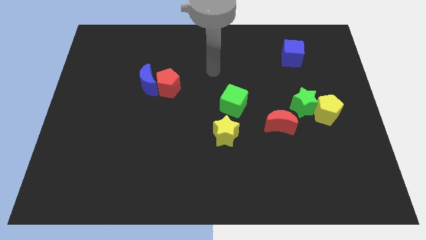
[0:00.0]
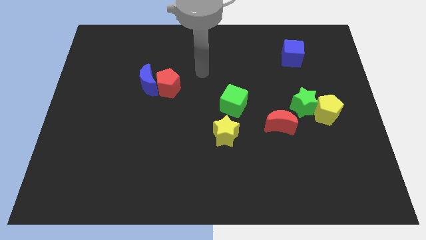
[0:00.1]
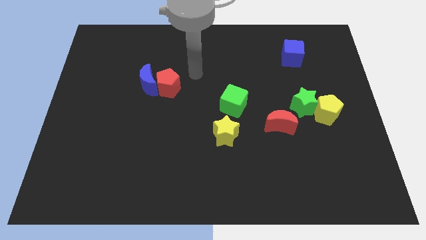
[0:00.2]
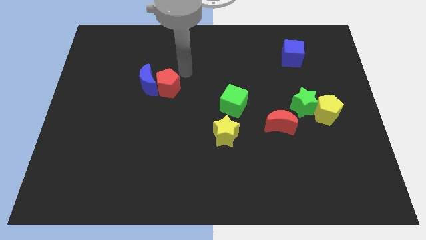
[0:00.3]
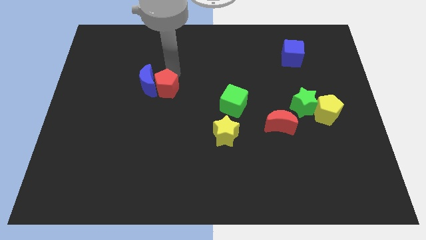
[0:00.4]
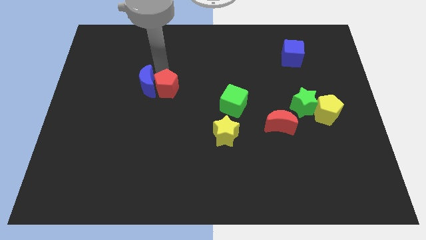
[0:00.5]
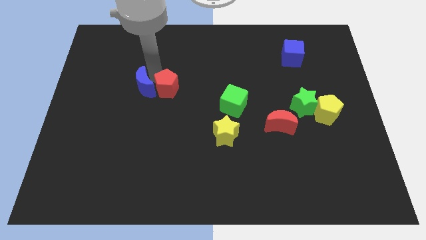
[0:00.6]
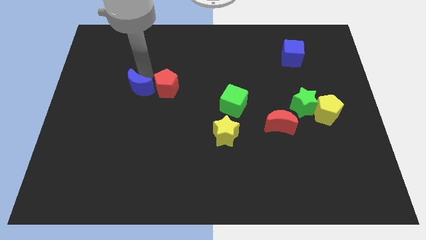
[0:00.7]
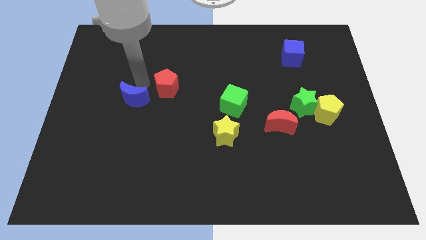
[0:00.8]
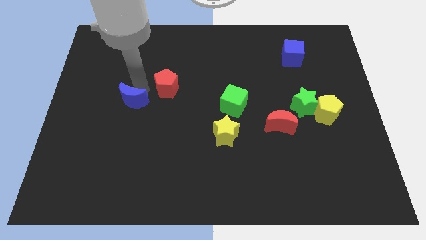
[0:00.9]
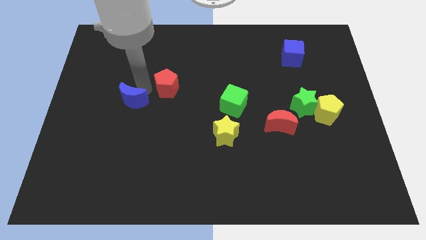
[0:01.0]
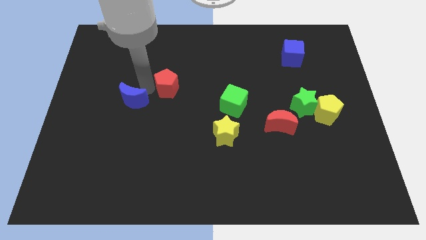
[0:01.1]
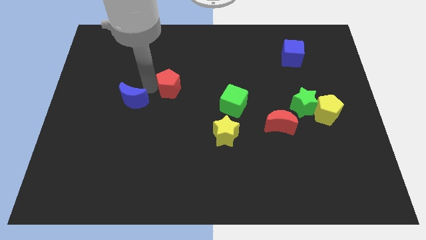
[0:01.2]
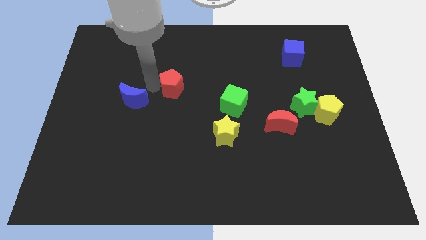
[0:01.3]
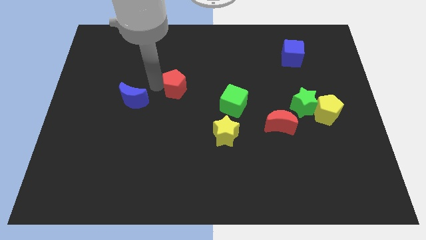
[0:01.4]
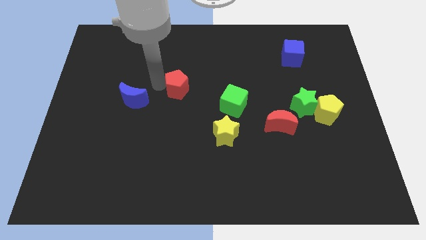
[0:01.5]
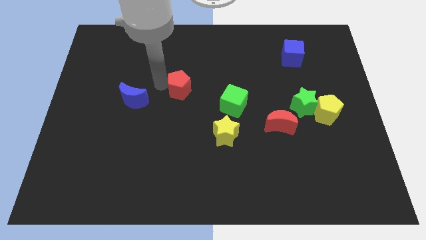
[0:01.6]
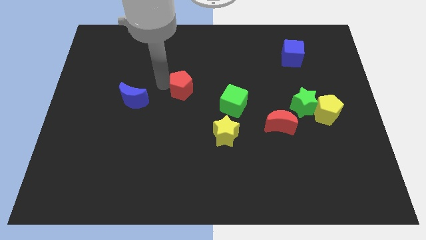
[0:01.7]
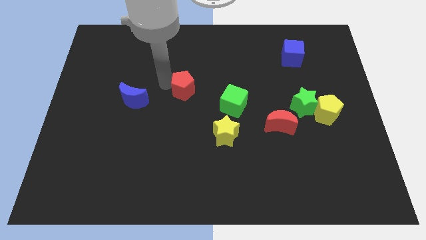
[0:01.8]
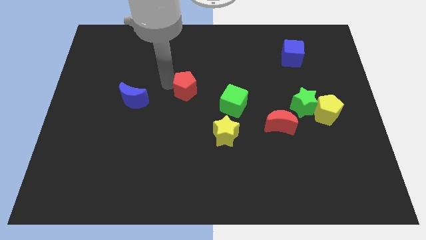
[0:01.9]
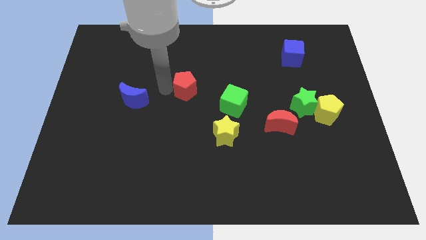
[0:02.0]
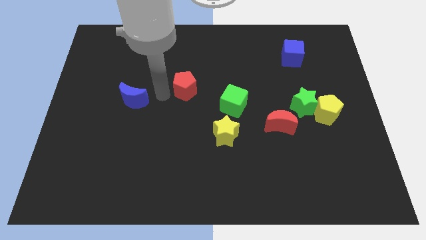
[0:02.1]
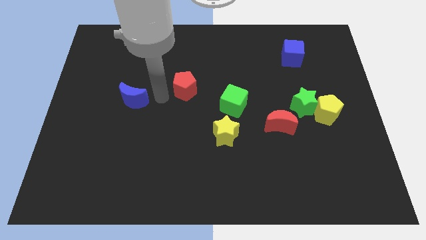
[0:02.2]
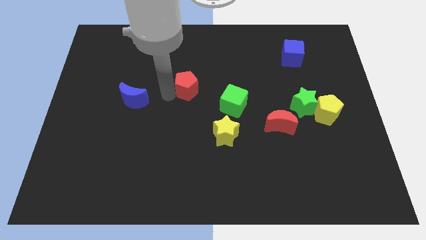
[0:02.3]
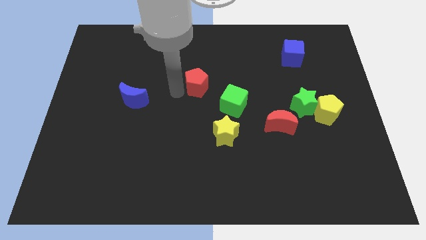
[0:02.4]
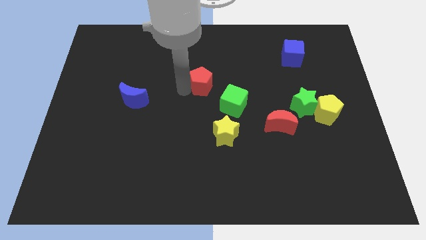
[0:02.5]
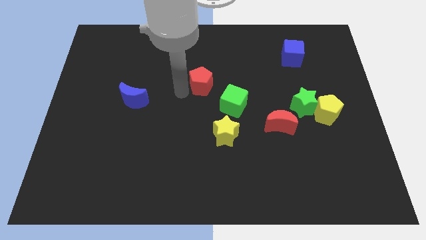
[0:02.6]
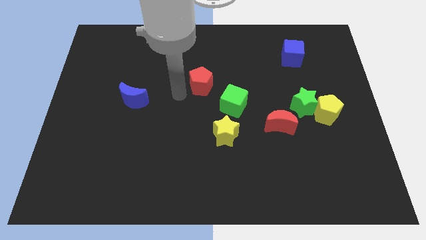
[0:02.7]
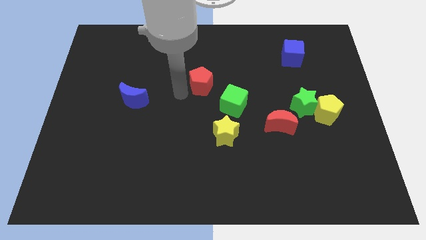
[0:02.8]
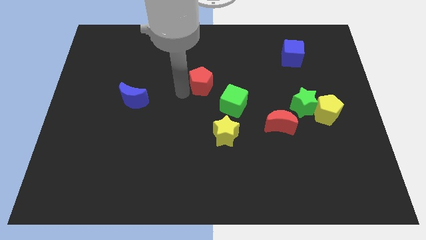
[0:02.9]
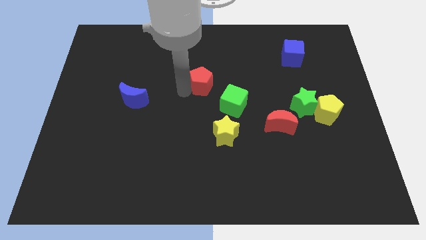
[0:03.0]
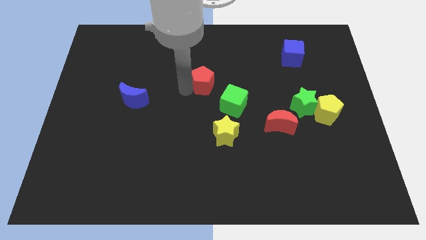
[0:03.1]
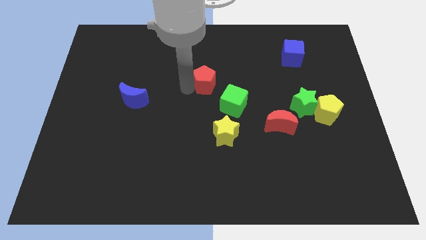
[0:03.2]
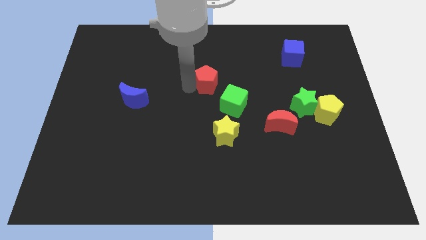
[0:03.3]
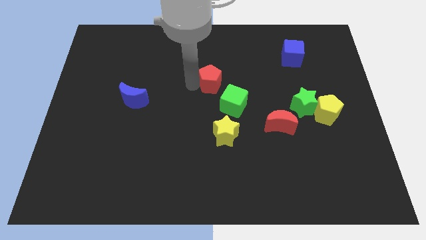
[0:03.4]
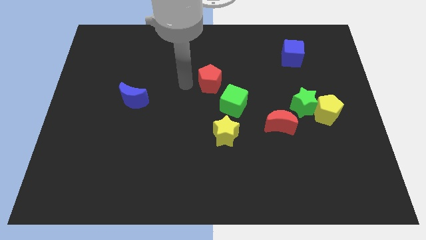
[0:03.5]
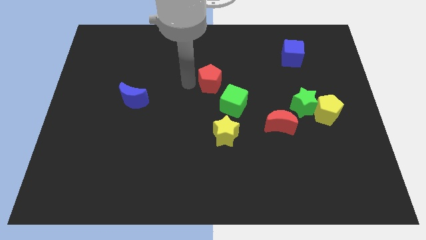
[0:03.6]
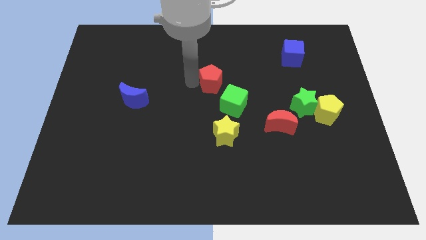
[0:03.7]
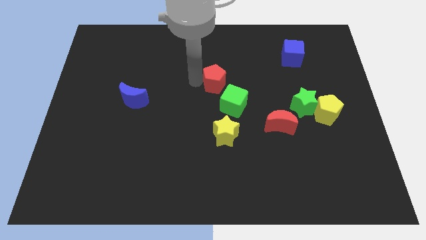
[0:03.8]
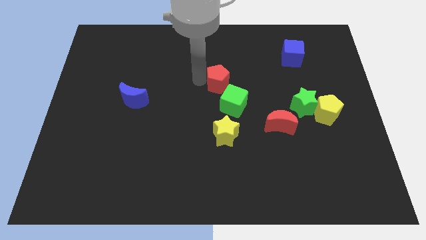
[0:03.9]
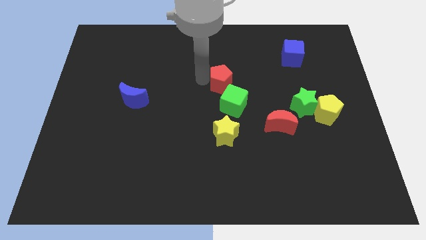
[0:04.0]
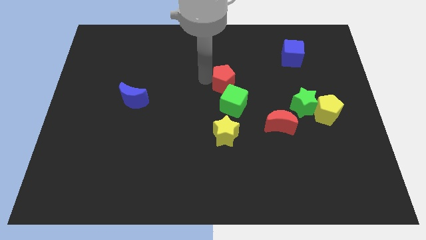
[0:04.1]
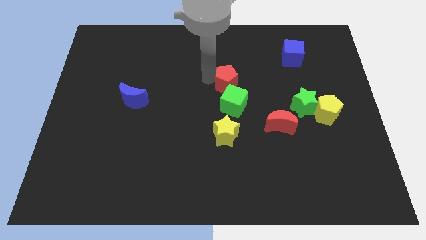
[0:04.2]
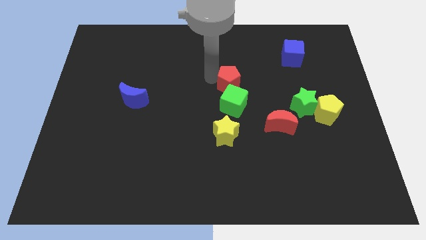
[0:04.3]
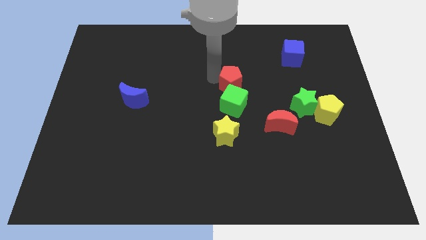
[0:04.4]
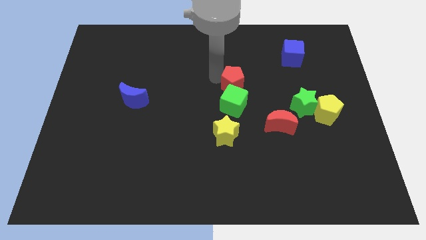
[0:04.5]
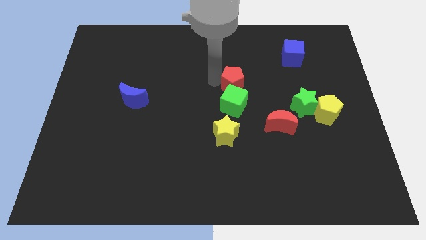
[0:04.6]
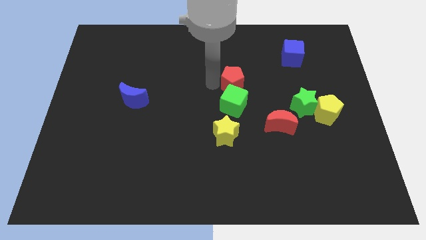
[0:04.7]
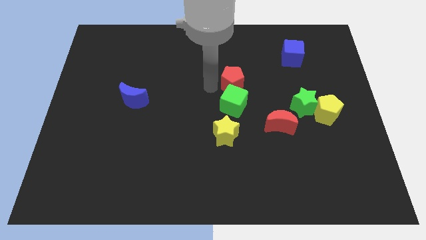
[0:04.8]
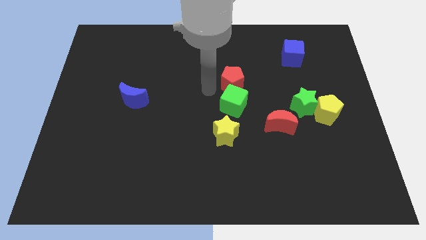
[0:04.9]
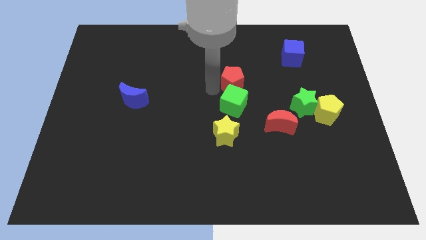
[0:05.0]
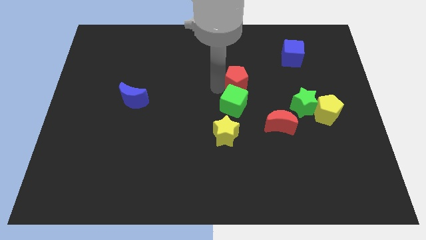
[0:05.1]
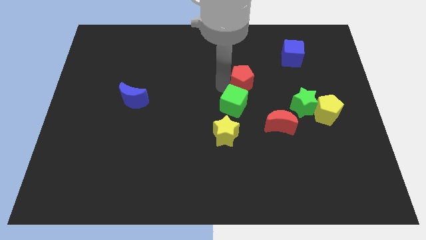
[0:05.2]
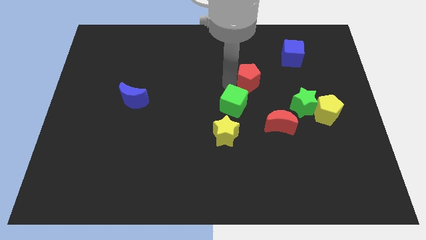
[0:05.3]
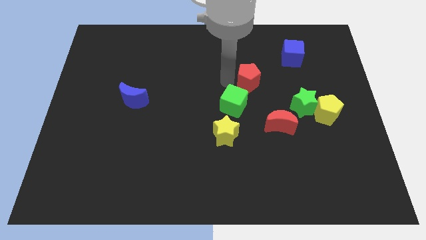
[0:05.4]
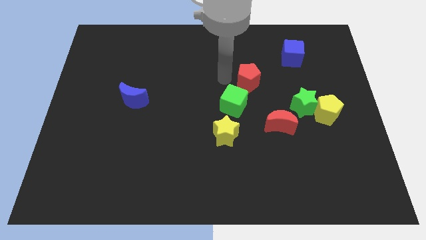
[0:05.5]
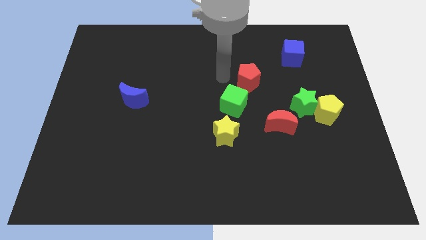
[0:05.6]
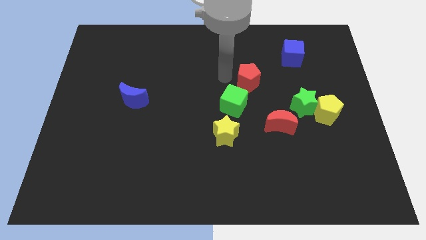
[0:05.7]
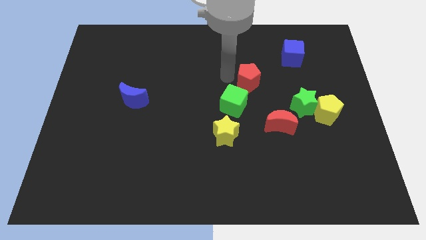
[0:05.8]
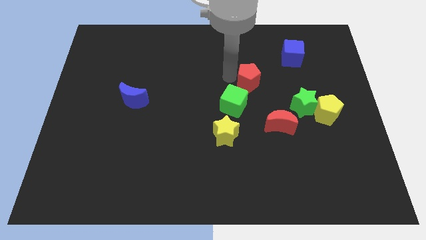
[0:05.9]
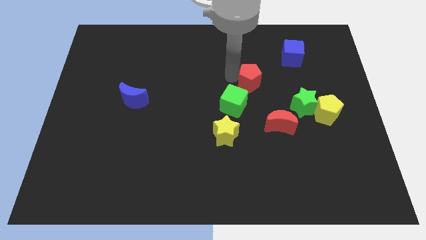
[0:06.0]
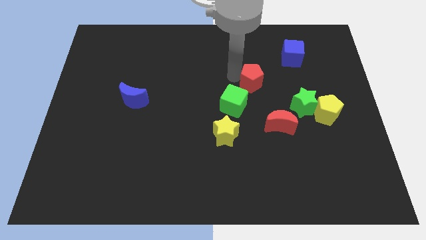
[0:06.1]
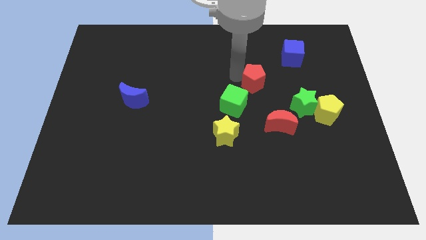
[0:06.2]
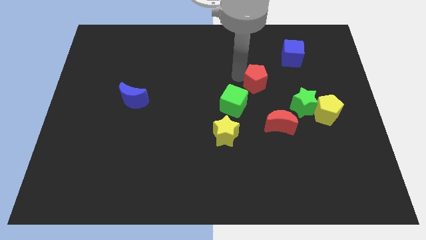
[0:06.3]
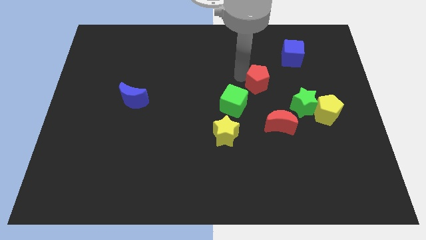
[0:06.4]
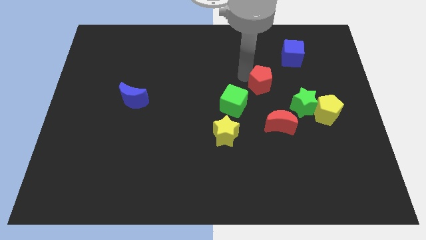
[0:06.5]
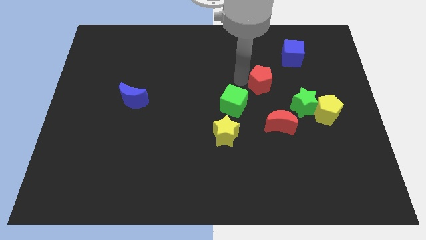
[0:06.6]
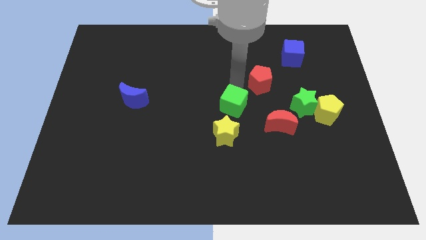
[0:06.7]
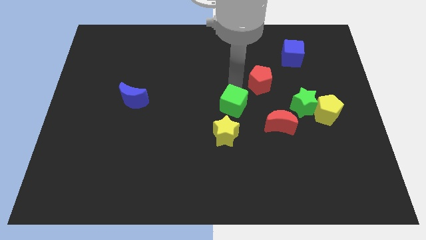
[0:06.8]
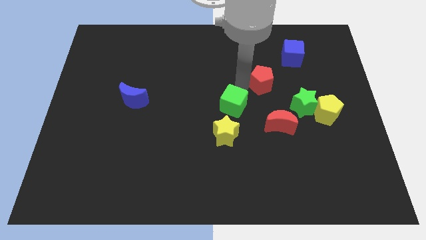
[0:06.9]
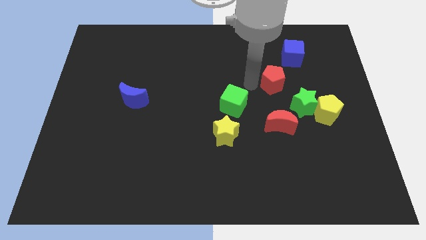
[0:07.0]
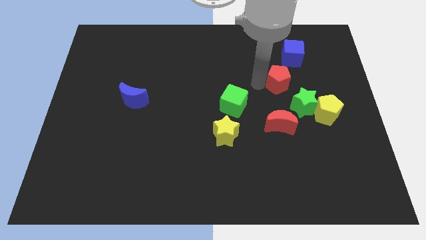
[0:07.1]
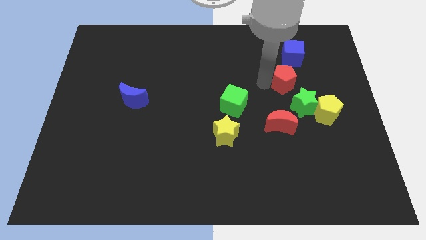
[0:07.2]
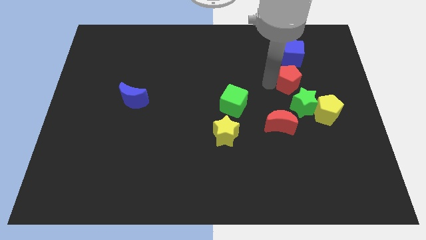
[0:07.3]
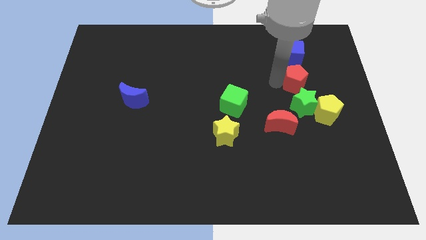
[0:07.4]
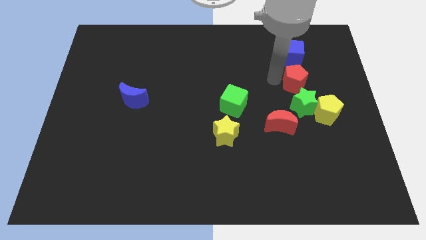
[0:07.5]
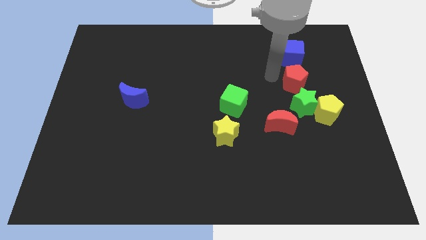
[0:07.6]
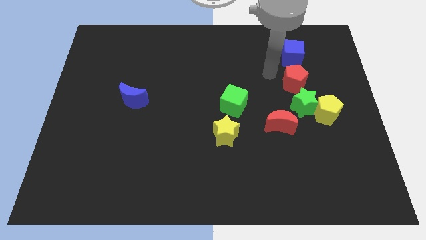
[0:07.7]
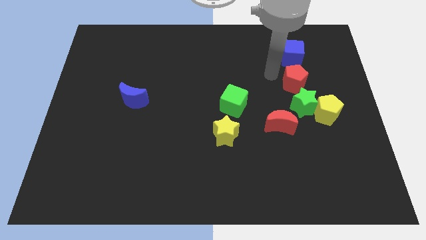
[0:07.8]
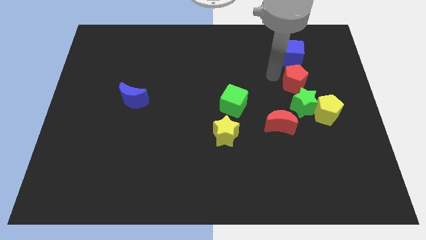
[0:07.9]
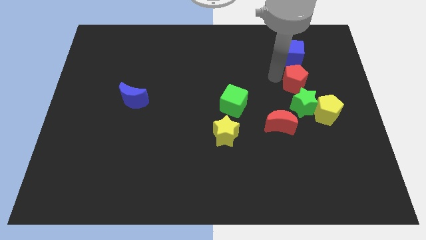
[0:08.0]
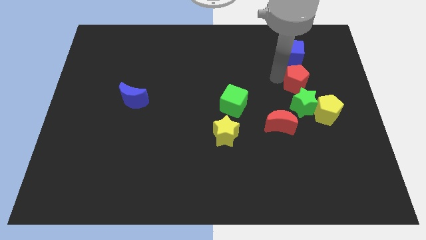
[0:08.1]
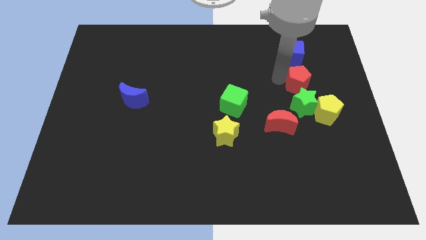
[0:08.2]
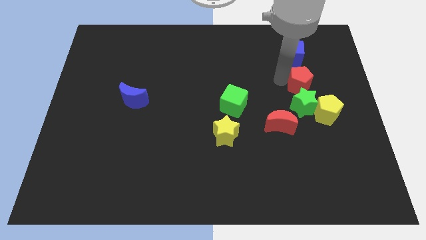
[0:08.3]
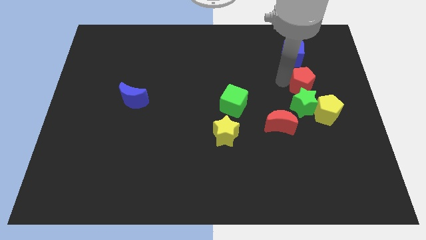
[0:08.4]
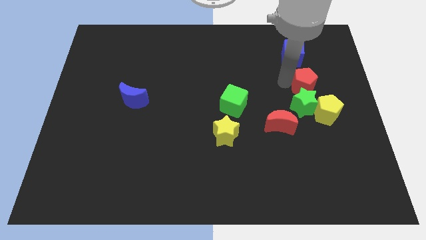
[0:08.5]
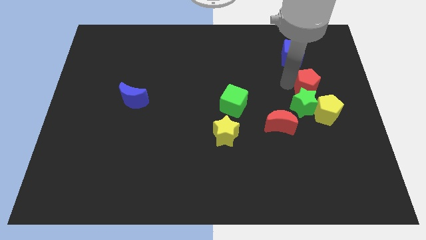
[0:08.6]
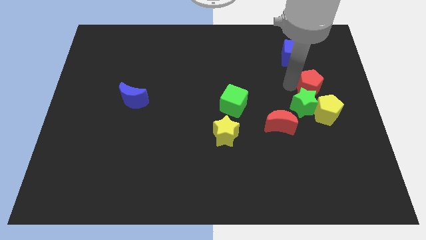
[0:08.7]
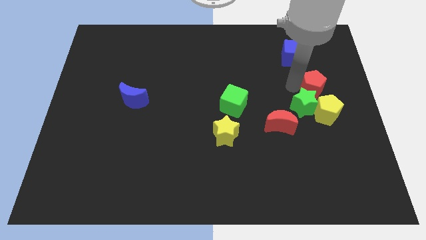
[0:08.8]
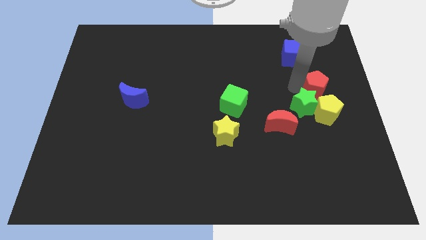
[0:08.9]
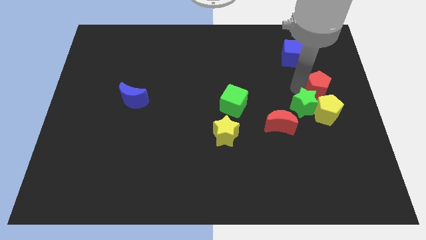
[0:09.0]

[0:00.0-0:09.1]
push the red pentagon to the center right
